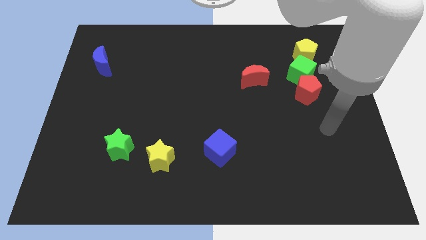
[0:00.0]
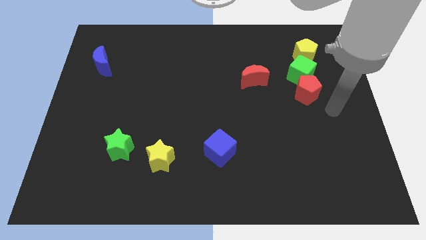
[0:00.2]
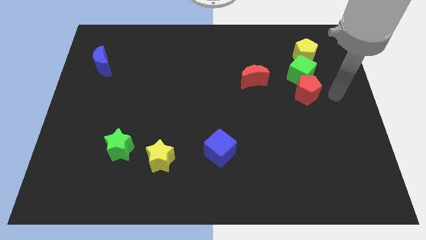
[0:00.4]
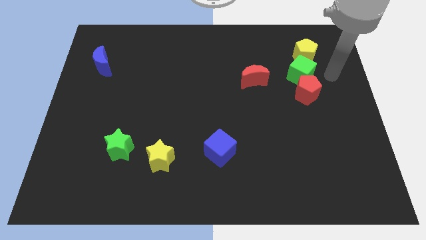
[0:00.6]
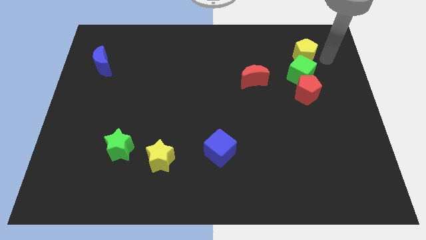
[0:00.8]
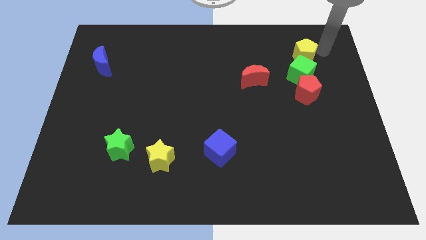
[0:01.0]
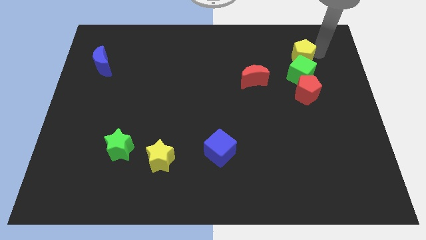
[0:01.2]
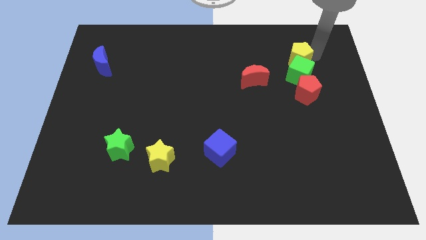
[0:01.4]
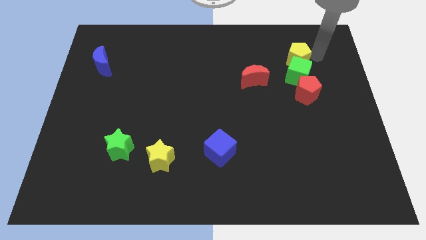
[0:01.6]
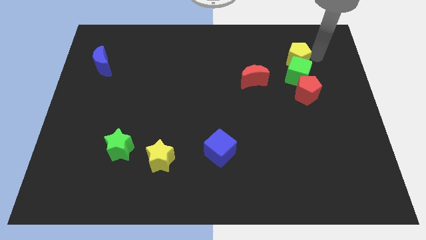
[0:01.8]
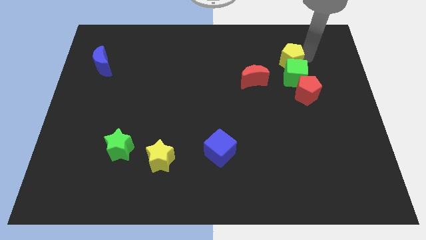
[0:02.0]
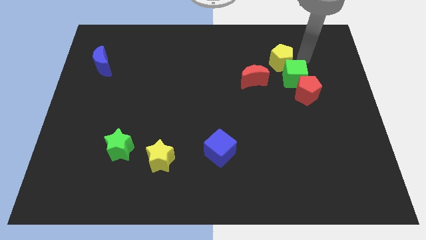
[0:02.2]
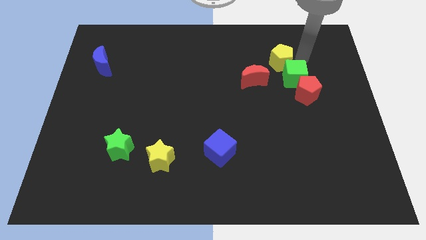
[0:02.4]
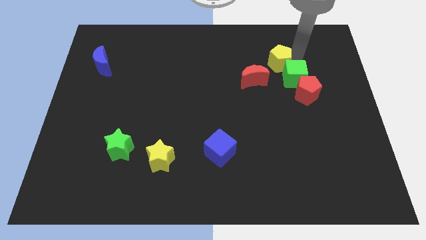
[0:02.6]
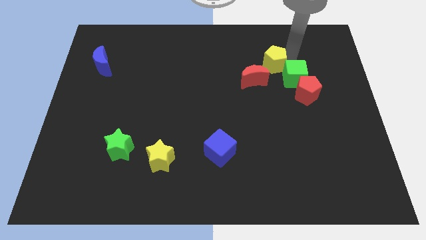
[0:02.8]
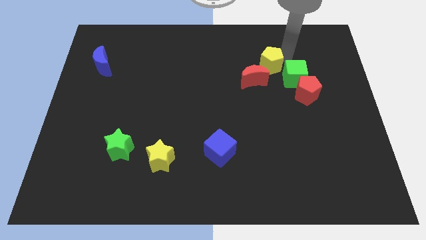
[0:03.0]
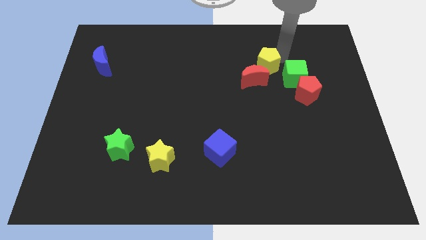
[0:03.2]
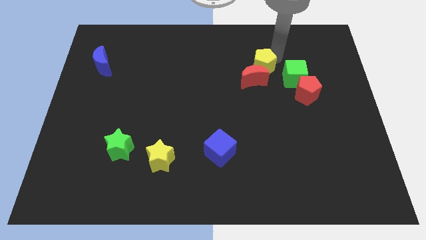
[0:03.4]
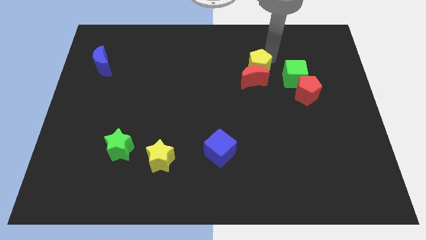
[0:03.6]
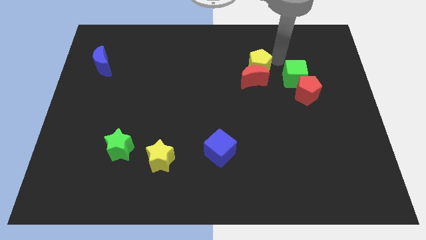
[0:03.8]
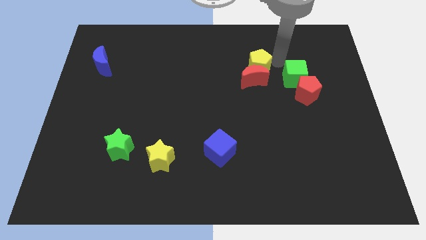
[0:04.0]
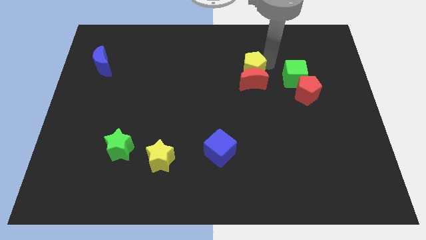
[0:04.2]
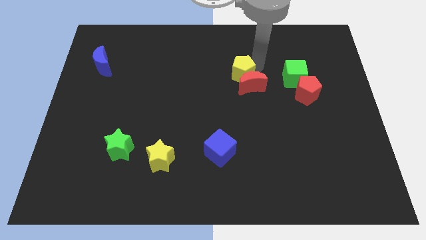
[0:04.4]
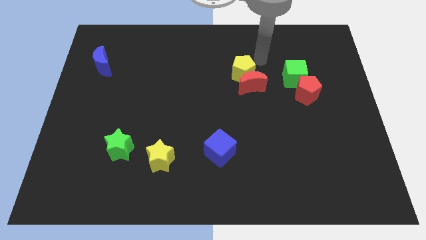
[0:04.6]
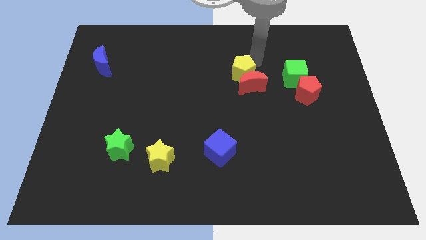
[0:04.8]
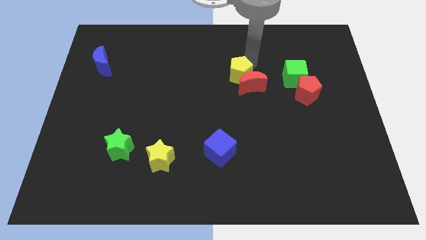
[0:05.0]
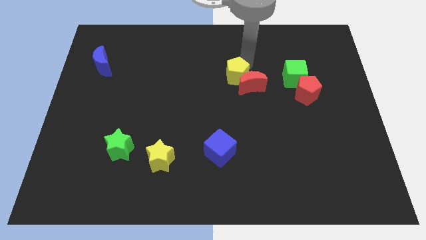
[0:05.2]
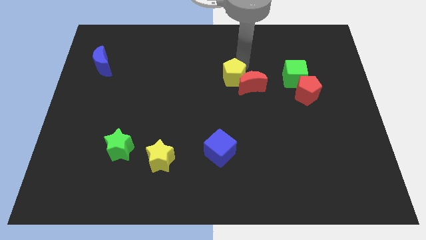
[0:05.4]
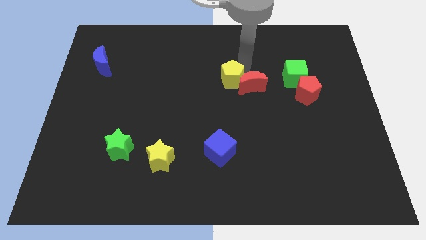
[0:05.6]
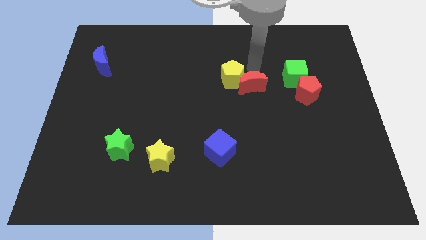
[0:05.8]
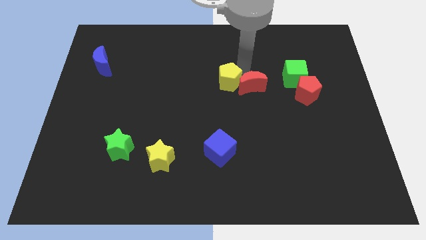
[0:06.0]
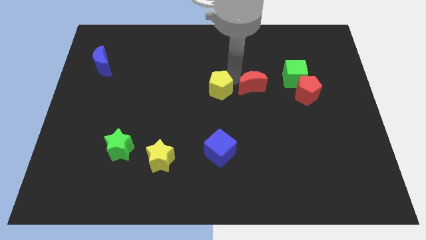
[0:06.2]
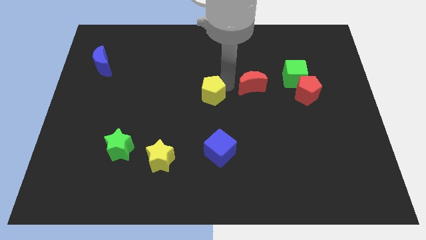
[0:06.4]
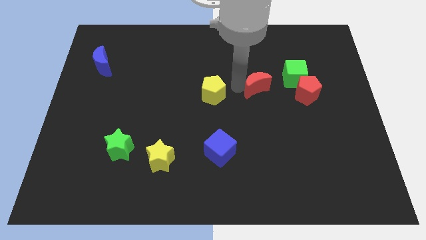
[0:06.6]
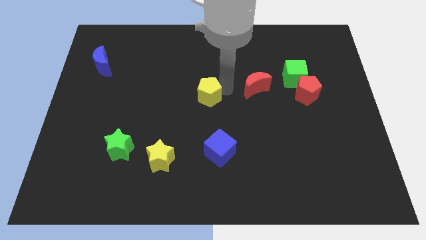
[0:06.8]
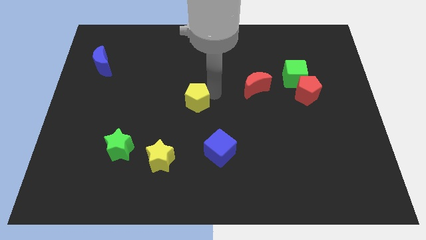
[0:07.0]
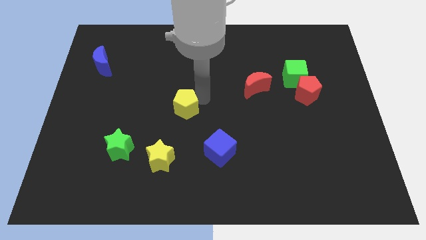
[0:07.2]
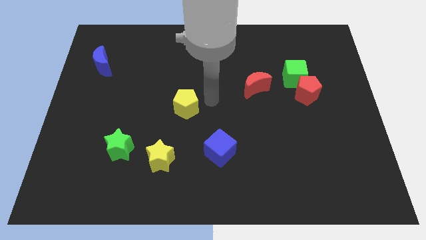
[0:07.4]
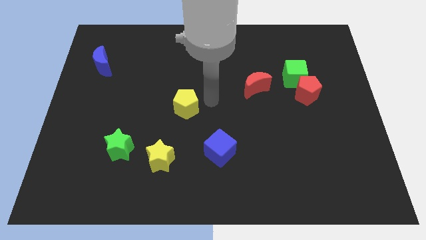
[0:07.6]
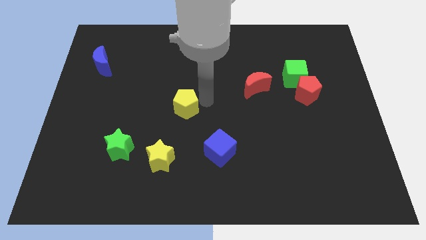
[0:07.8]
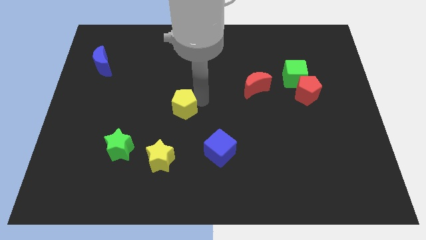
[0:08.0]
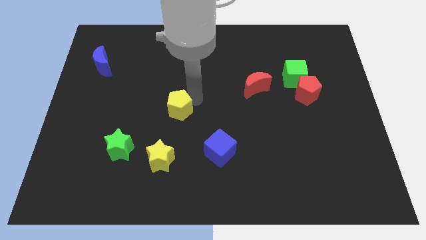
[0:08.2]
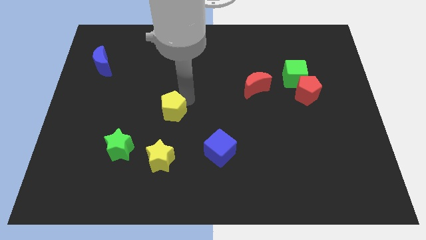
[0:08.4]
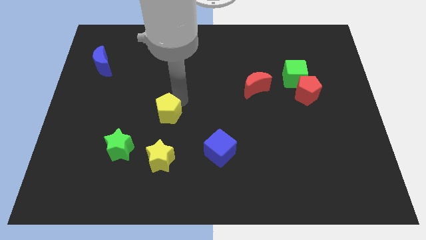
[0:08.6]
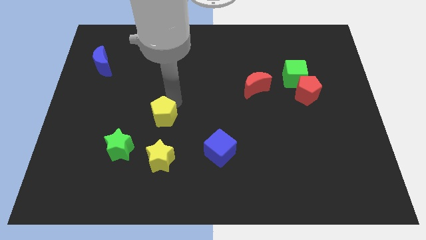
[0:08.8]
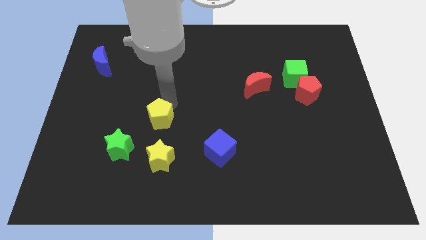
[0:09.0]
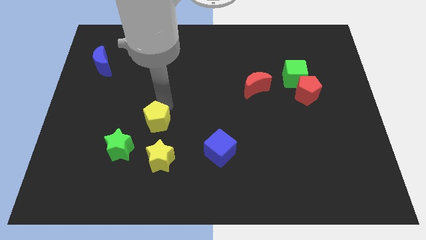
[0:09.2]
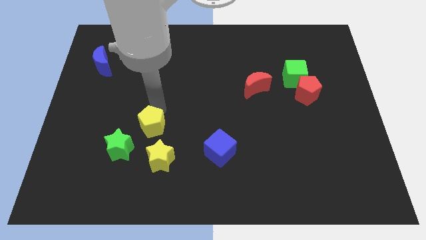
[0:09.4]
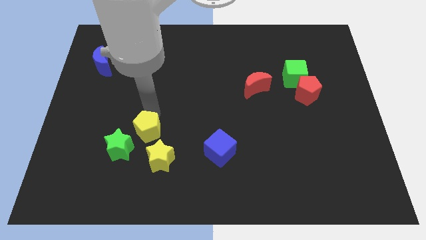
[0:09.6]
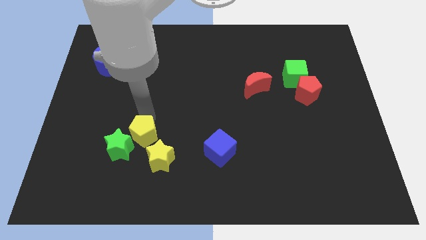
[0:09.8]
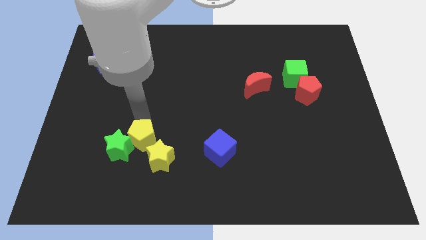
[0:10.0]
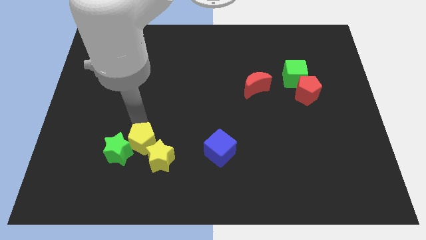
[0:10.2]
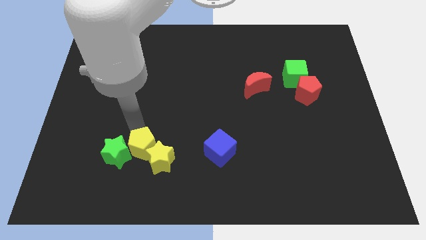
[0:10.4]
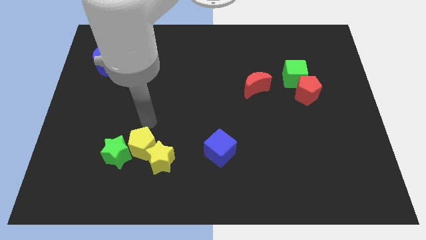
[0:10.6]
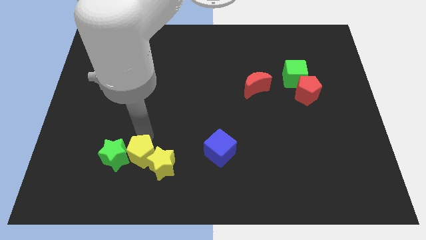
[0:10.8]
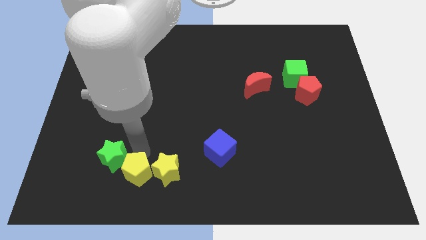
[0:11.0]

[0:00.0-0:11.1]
push the yellow pentagon to the bottom left side of the yellow star

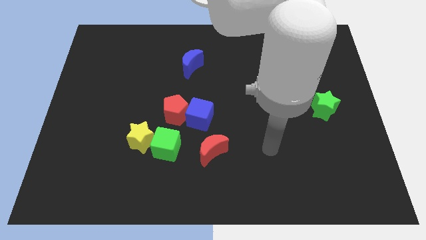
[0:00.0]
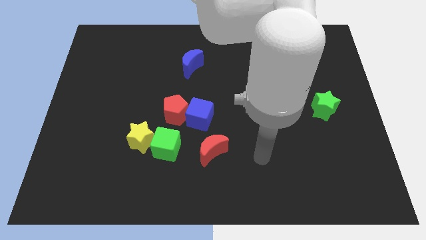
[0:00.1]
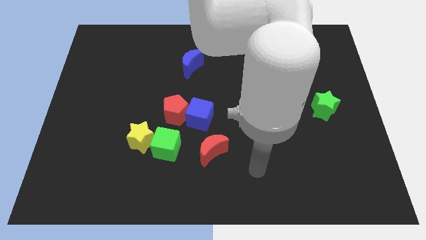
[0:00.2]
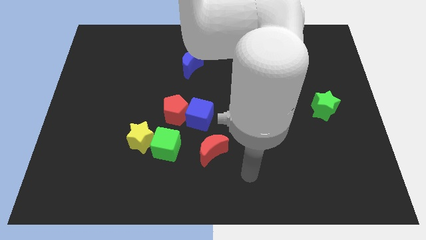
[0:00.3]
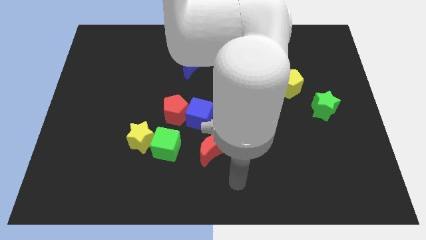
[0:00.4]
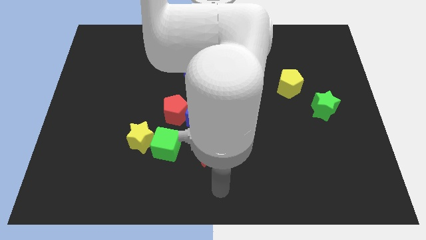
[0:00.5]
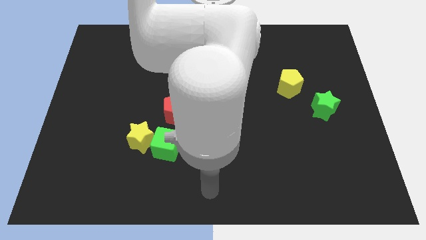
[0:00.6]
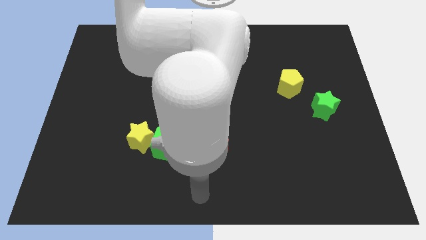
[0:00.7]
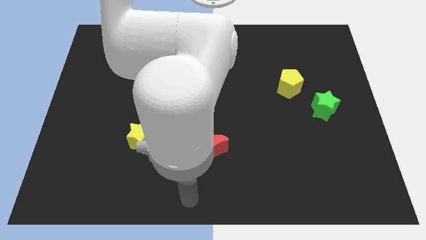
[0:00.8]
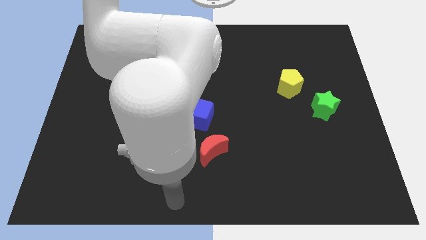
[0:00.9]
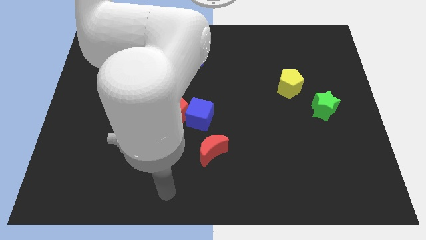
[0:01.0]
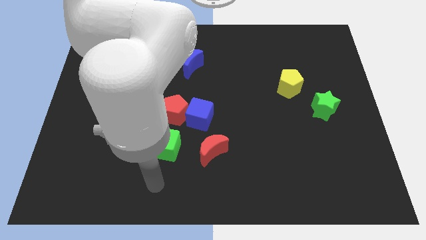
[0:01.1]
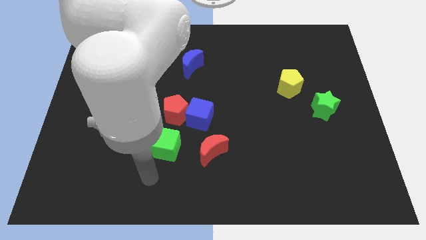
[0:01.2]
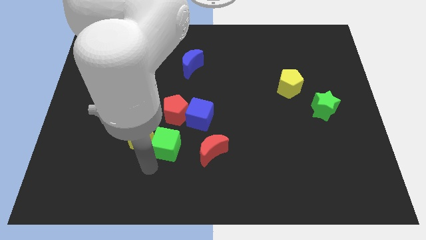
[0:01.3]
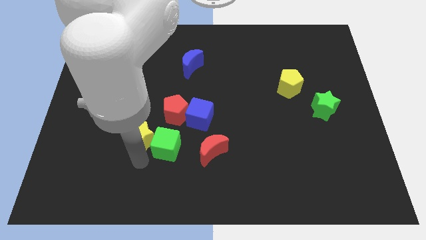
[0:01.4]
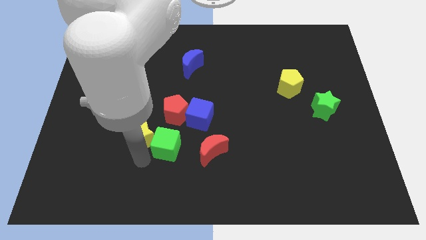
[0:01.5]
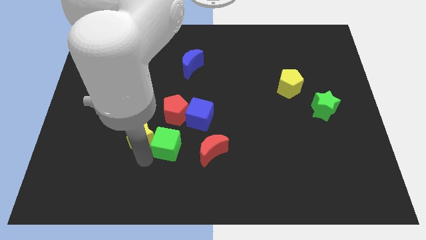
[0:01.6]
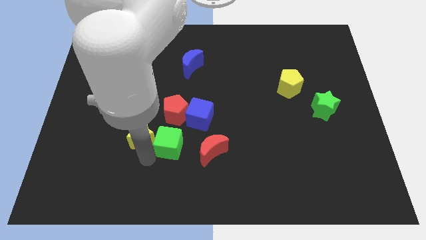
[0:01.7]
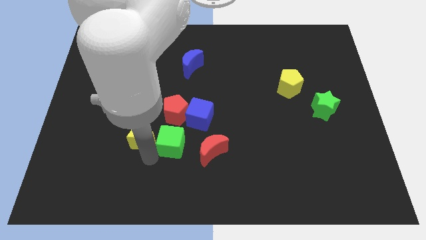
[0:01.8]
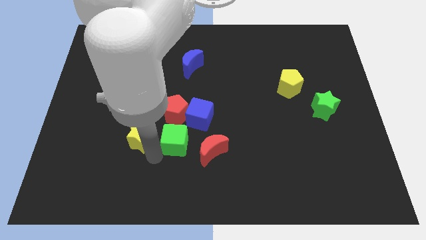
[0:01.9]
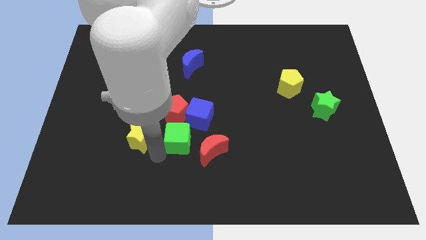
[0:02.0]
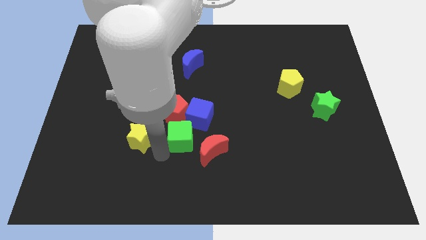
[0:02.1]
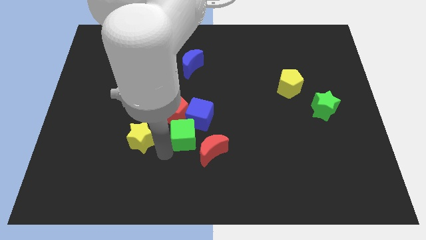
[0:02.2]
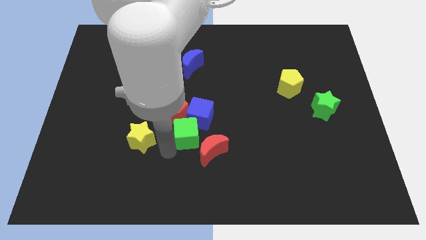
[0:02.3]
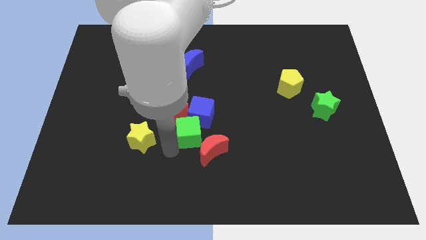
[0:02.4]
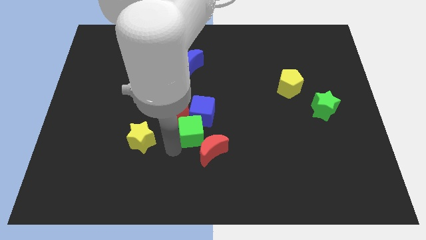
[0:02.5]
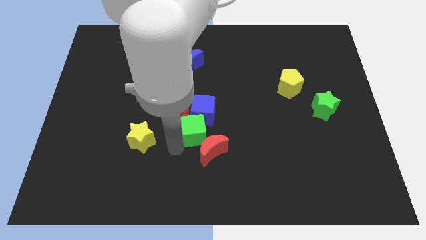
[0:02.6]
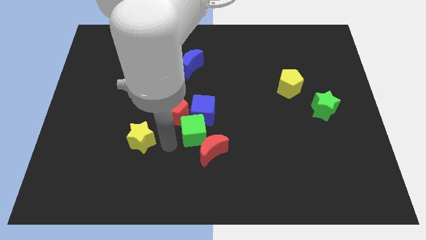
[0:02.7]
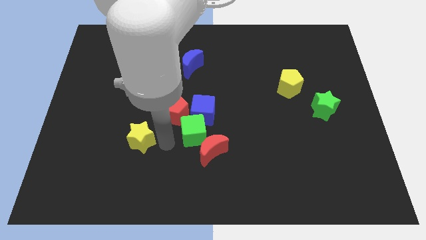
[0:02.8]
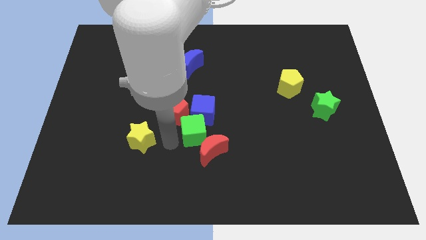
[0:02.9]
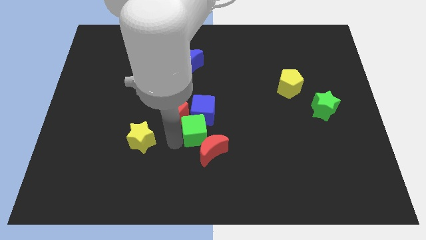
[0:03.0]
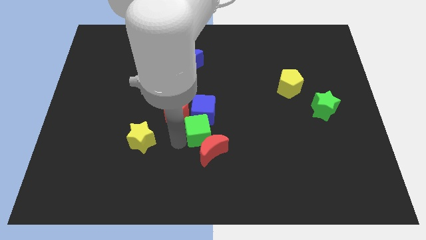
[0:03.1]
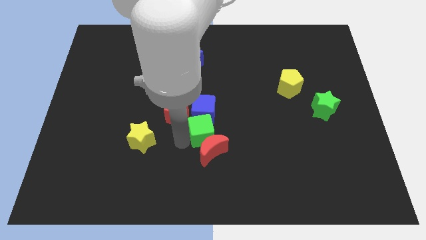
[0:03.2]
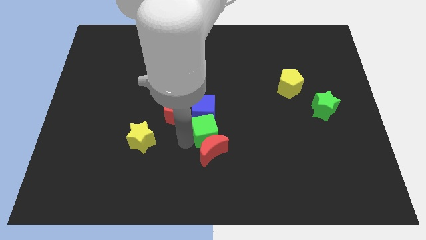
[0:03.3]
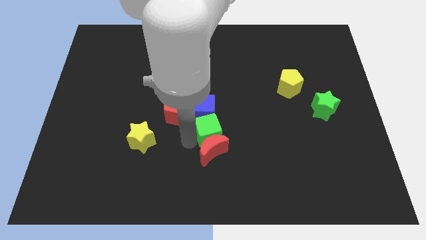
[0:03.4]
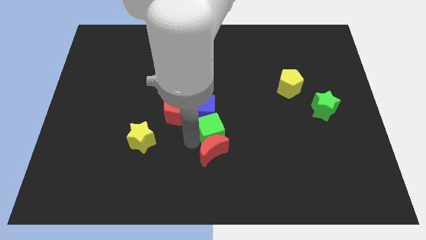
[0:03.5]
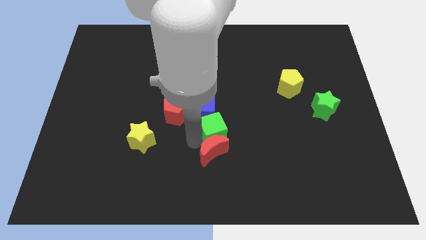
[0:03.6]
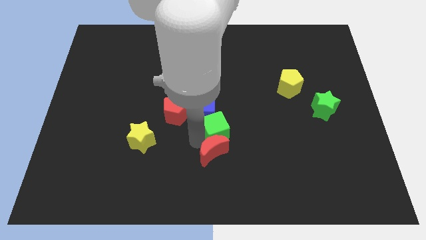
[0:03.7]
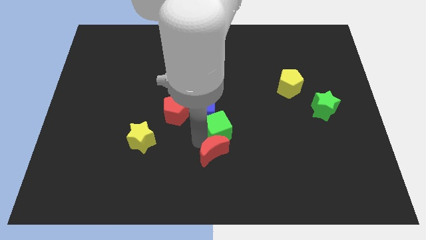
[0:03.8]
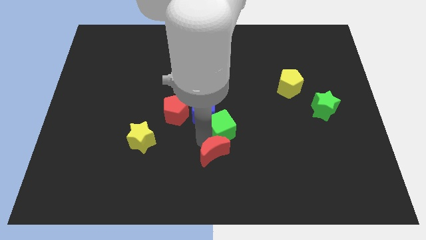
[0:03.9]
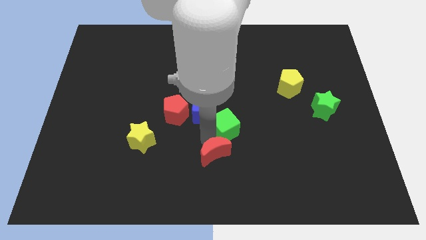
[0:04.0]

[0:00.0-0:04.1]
put the green cube just right of the blue cube
